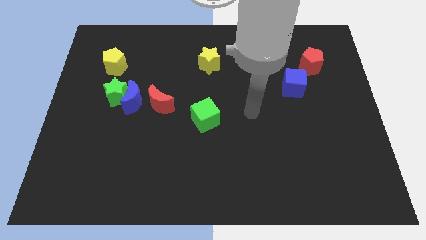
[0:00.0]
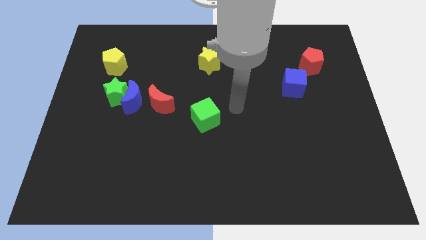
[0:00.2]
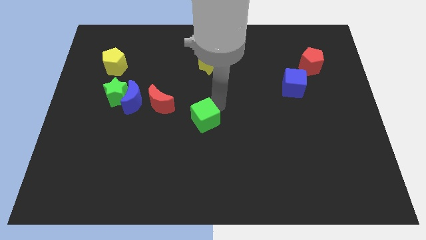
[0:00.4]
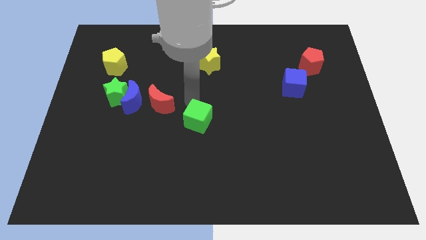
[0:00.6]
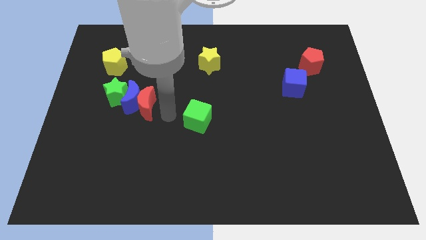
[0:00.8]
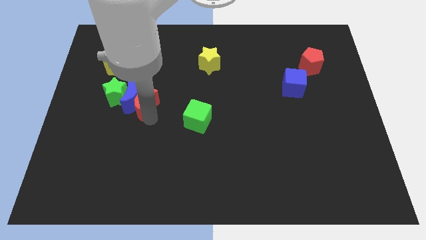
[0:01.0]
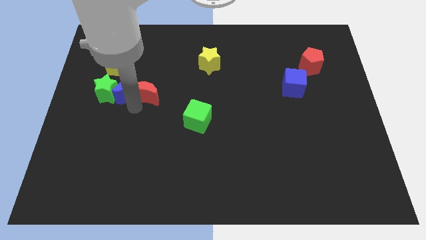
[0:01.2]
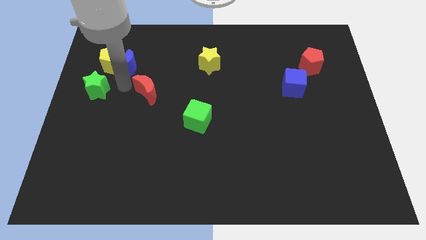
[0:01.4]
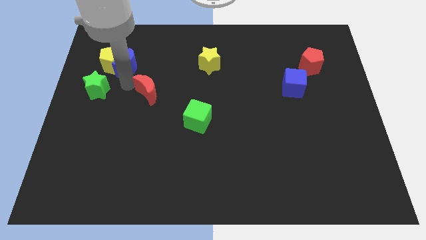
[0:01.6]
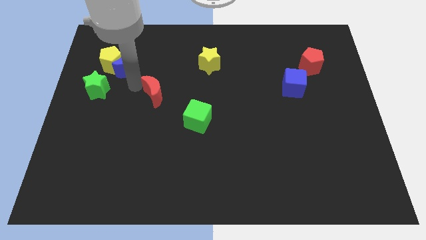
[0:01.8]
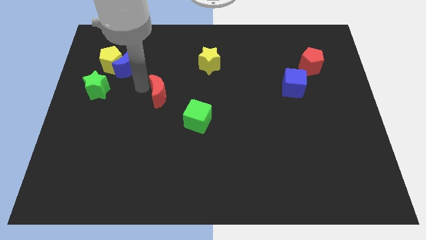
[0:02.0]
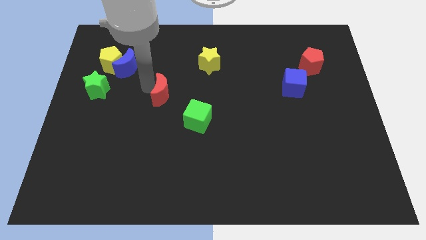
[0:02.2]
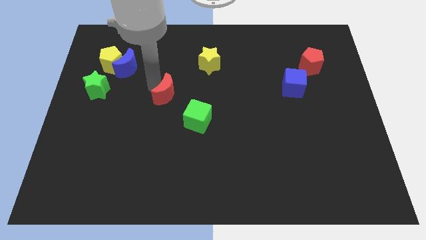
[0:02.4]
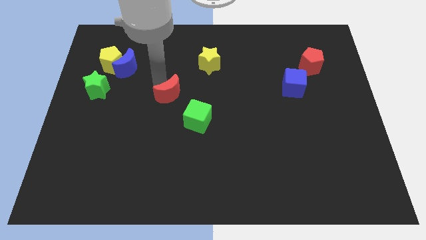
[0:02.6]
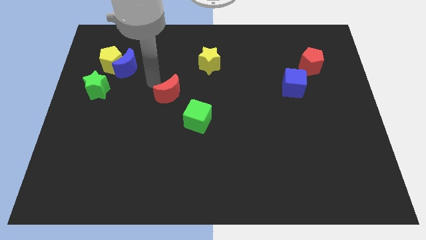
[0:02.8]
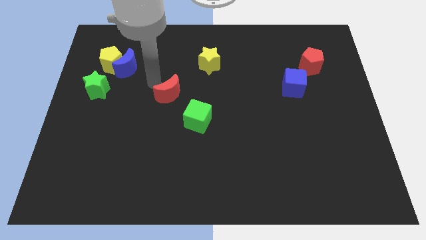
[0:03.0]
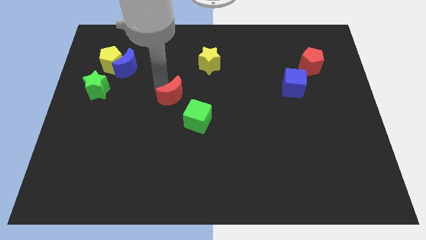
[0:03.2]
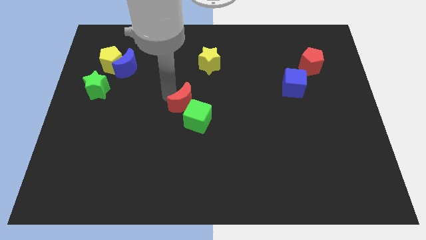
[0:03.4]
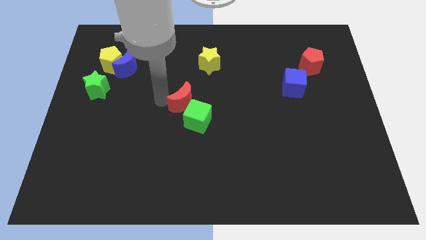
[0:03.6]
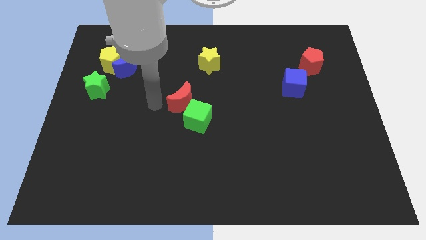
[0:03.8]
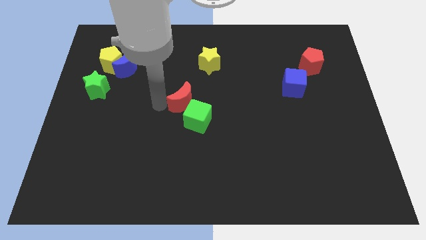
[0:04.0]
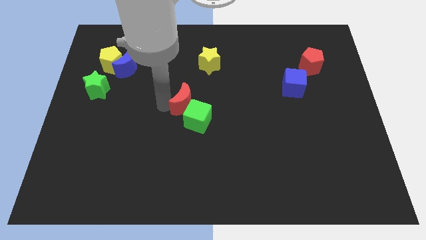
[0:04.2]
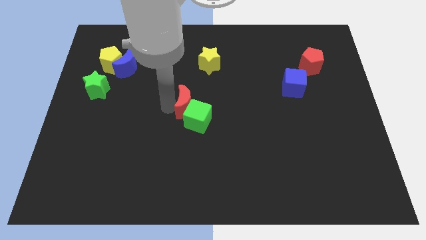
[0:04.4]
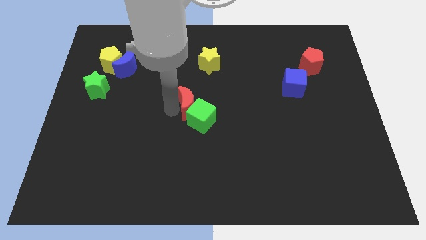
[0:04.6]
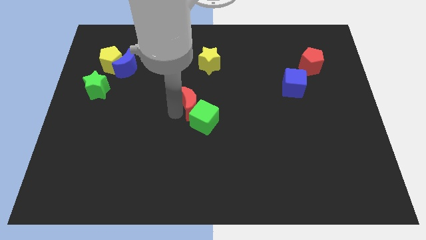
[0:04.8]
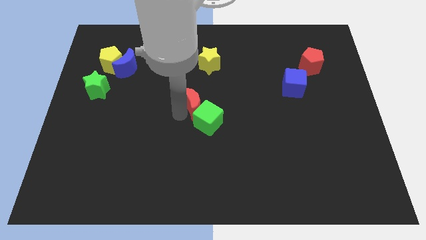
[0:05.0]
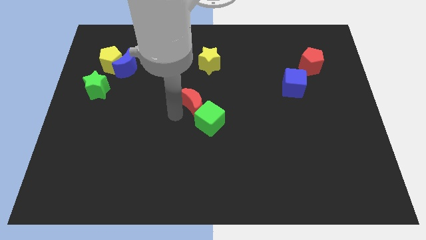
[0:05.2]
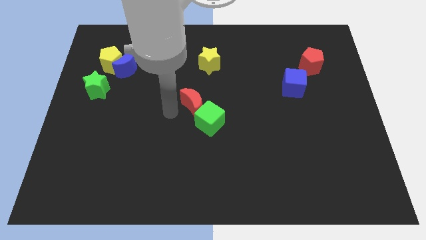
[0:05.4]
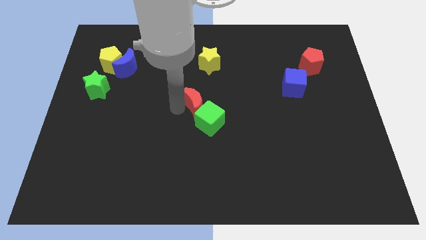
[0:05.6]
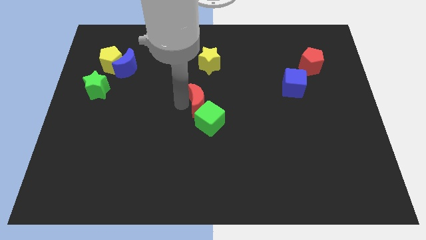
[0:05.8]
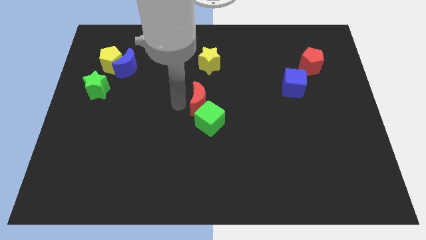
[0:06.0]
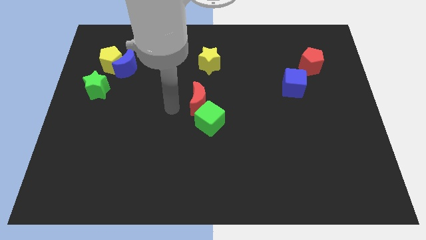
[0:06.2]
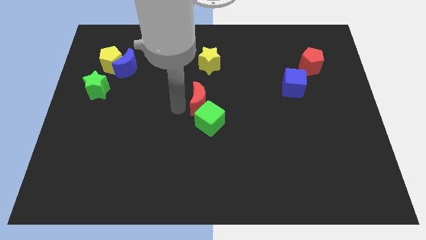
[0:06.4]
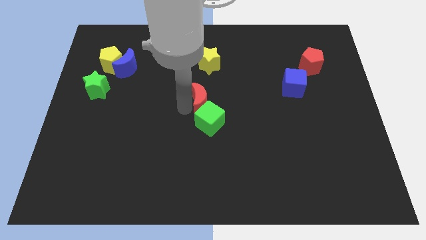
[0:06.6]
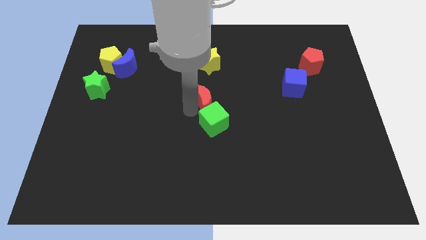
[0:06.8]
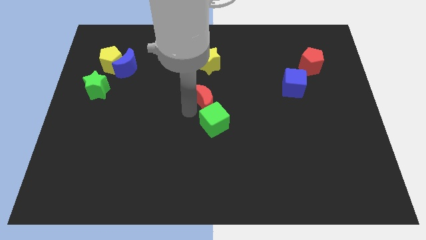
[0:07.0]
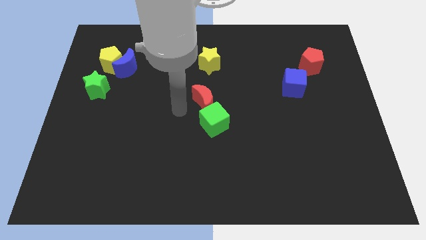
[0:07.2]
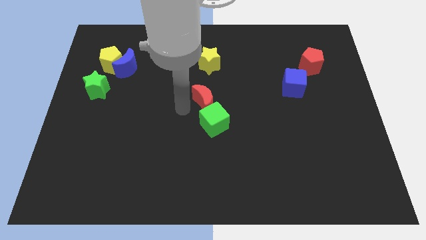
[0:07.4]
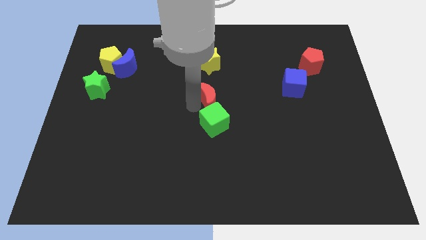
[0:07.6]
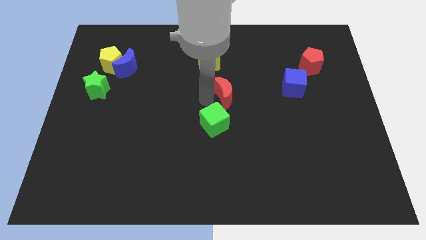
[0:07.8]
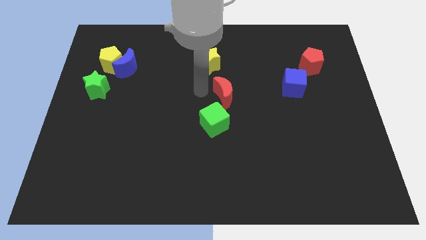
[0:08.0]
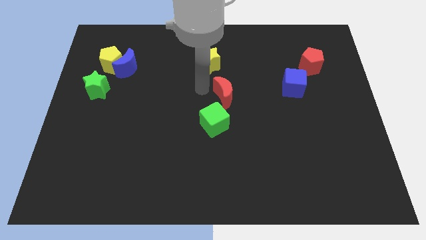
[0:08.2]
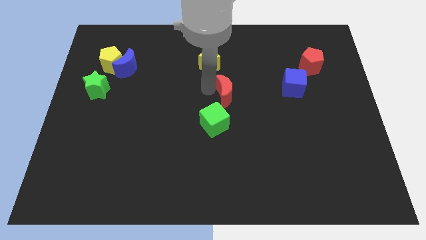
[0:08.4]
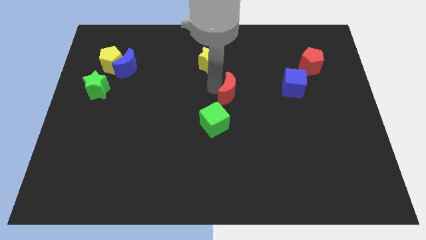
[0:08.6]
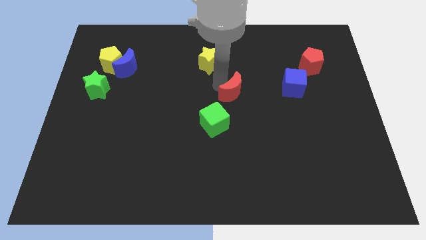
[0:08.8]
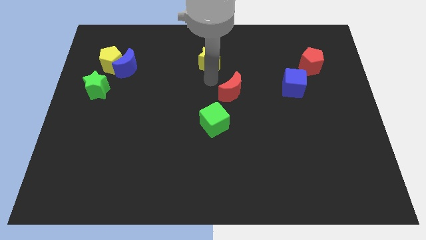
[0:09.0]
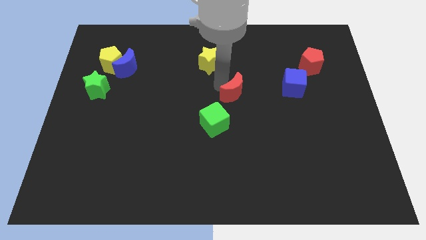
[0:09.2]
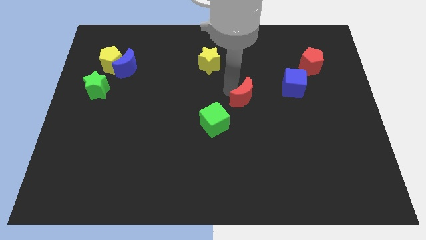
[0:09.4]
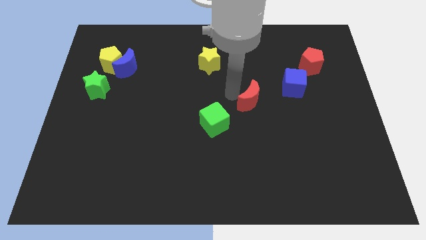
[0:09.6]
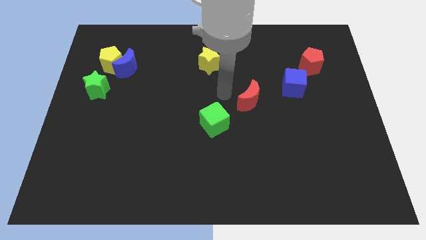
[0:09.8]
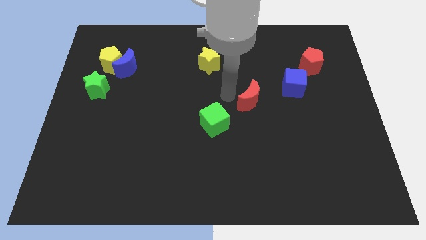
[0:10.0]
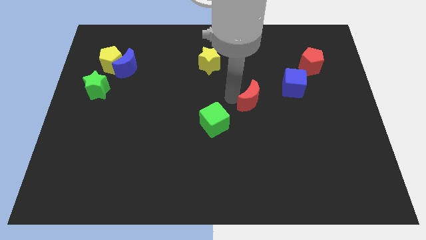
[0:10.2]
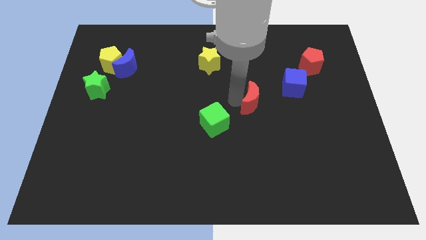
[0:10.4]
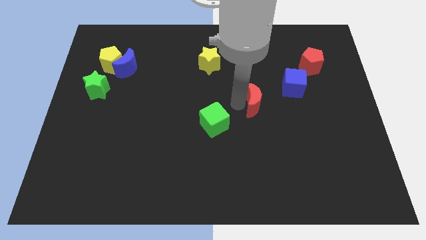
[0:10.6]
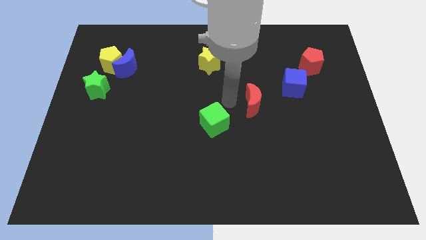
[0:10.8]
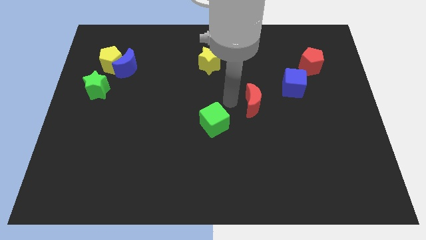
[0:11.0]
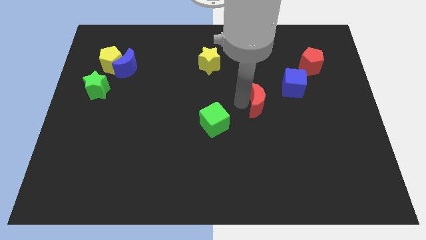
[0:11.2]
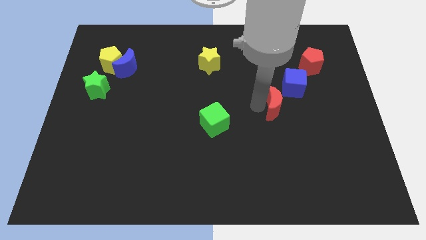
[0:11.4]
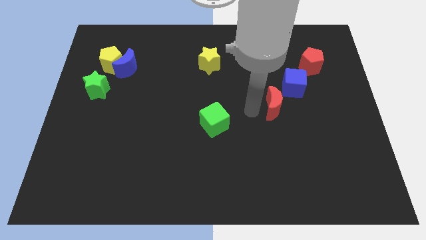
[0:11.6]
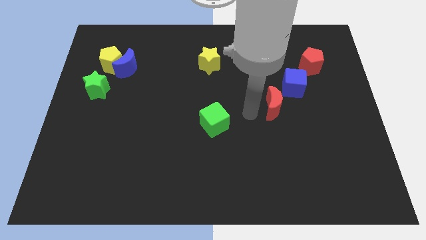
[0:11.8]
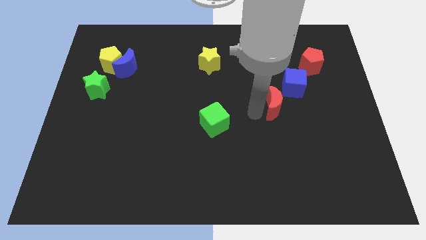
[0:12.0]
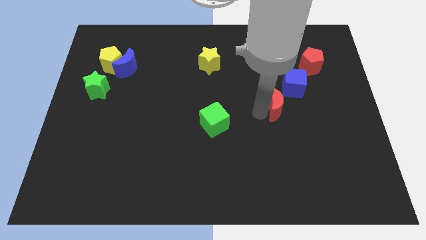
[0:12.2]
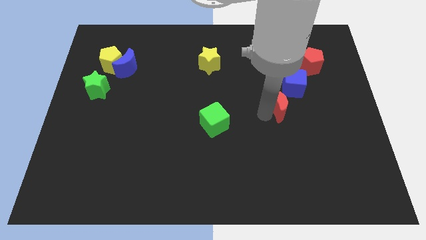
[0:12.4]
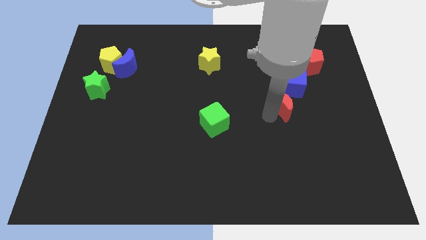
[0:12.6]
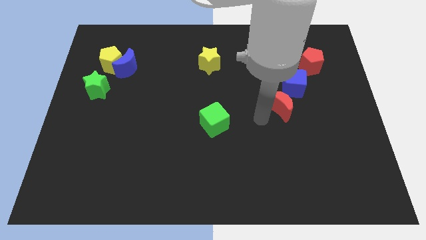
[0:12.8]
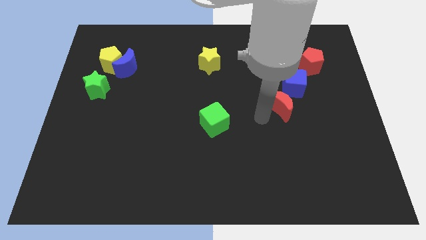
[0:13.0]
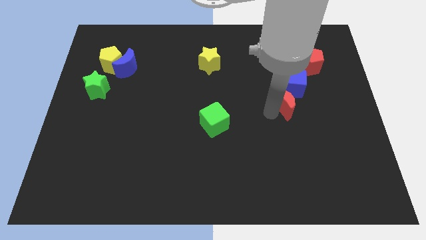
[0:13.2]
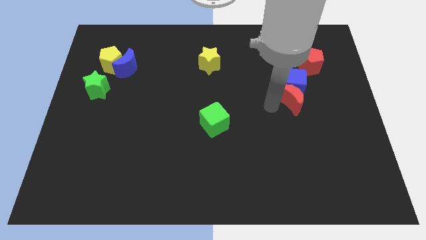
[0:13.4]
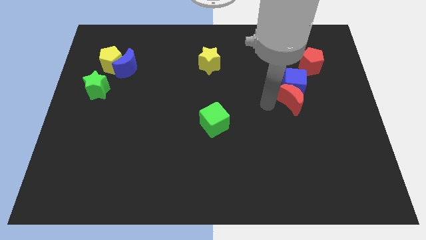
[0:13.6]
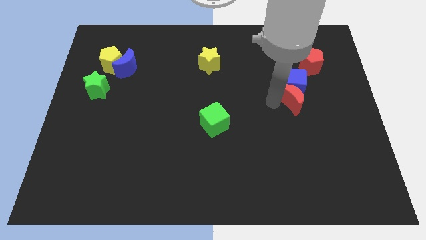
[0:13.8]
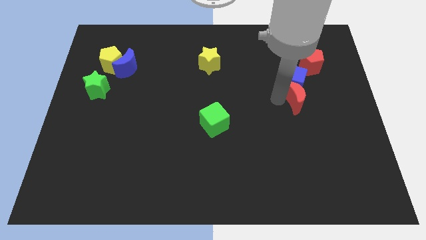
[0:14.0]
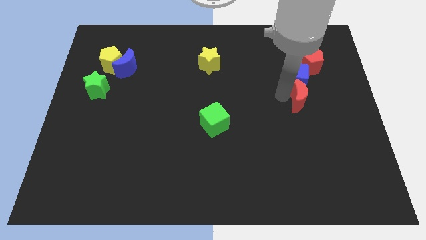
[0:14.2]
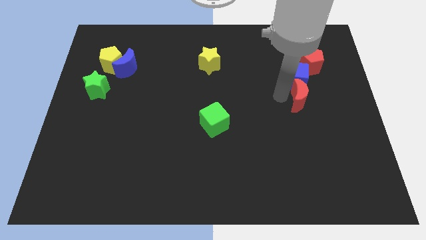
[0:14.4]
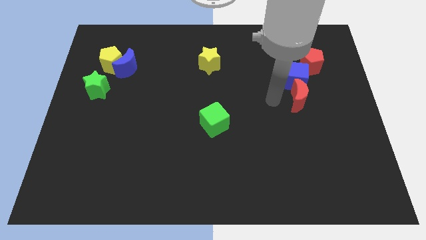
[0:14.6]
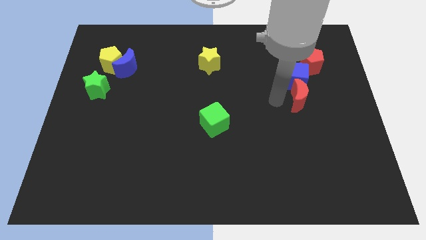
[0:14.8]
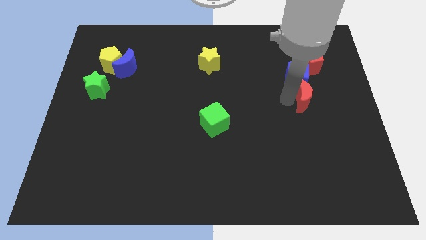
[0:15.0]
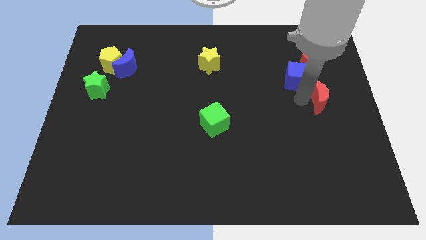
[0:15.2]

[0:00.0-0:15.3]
put the red moon to the right side of the board
